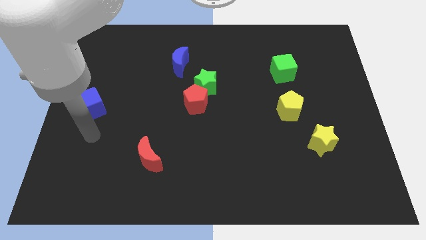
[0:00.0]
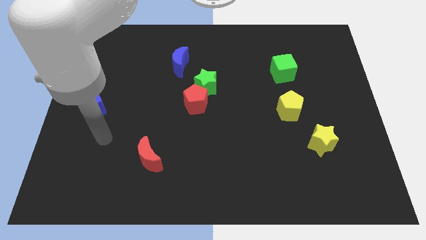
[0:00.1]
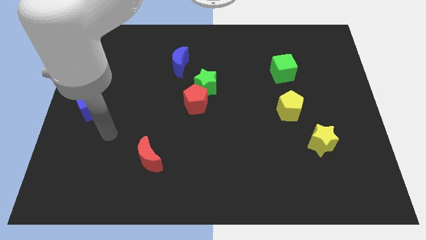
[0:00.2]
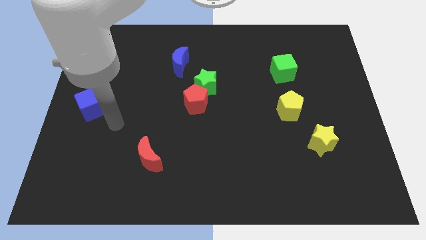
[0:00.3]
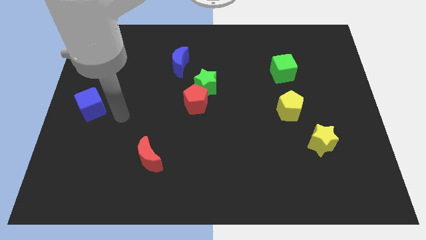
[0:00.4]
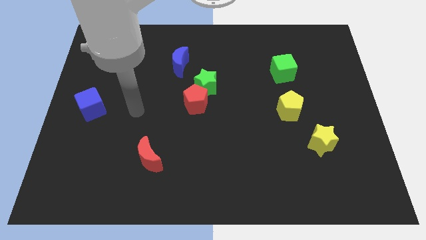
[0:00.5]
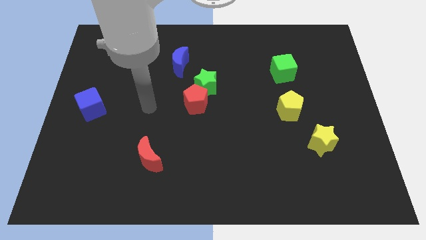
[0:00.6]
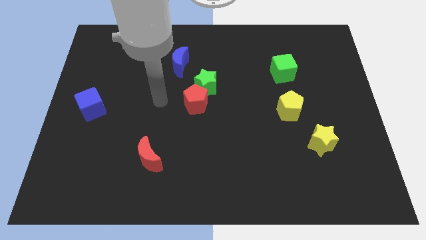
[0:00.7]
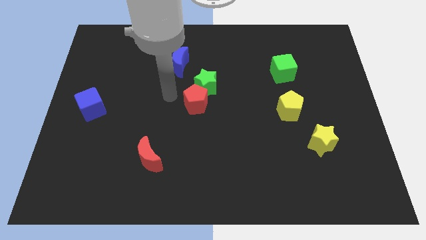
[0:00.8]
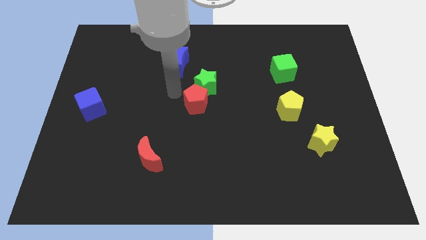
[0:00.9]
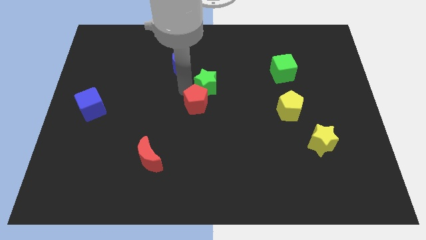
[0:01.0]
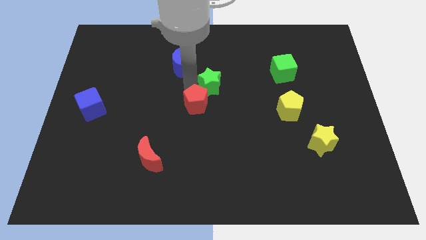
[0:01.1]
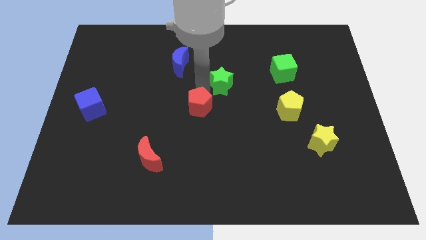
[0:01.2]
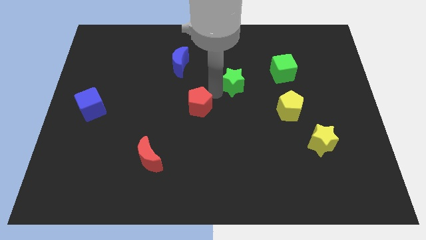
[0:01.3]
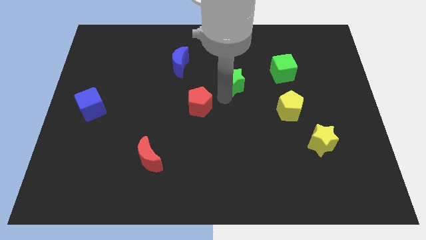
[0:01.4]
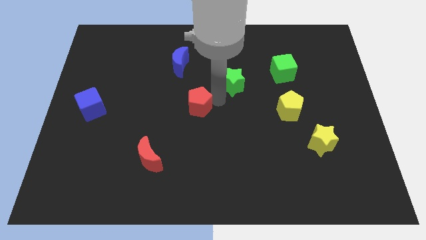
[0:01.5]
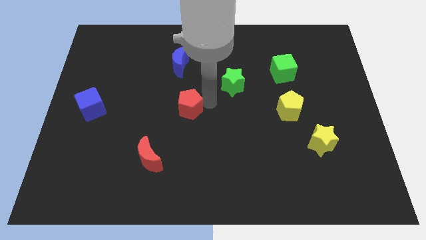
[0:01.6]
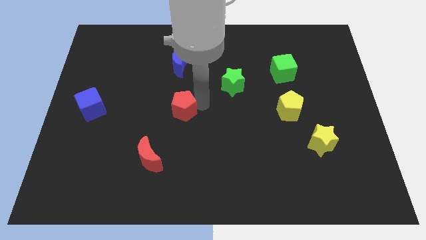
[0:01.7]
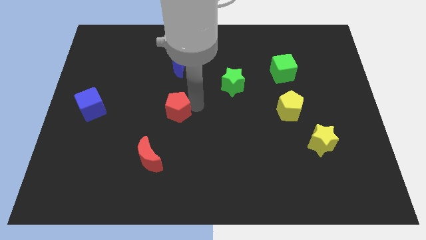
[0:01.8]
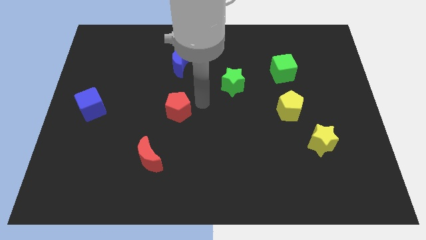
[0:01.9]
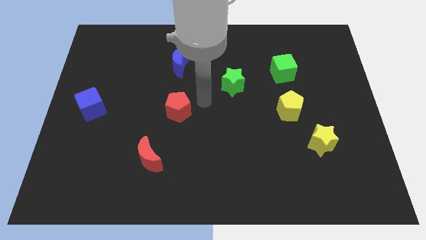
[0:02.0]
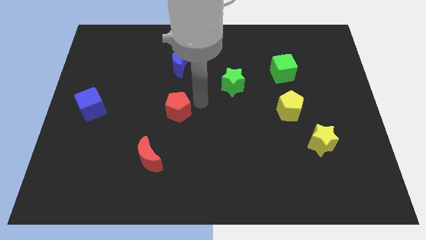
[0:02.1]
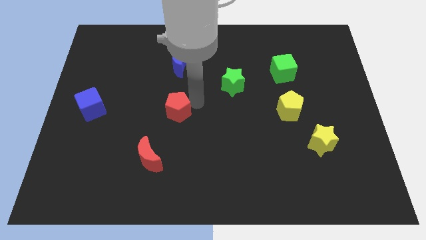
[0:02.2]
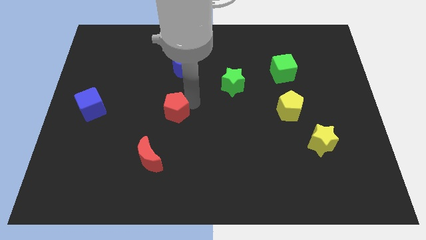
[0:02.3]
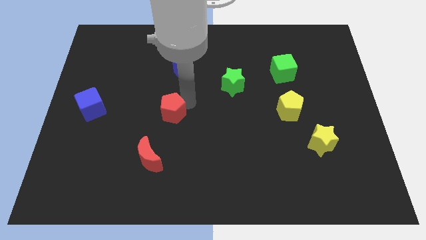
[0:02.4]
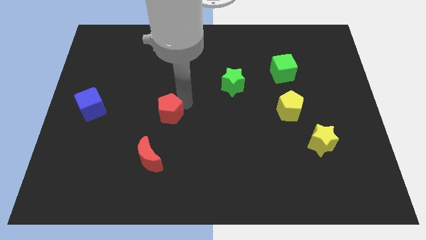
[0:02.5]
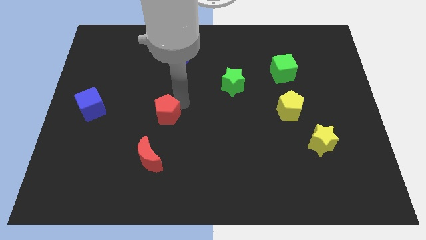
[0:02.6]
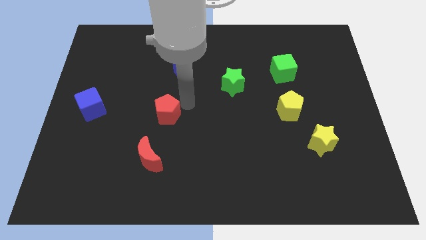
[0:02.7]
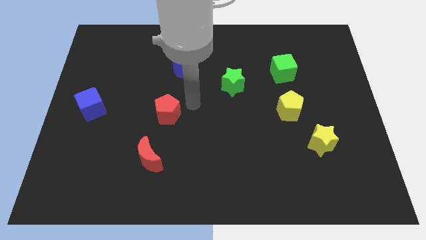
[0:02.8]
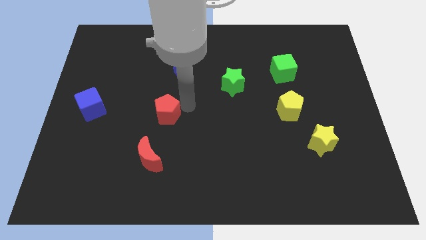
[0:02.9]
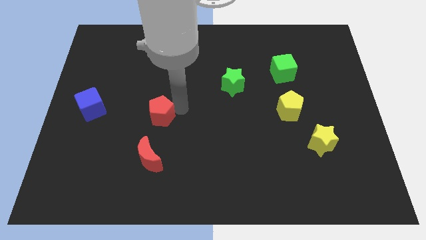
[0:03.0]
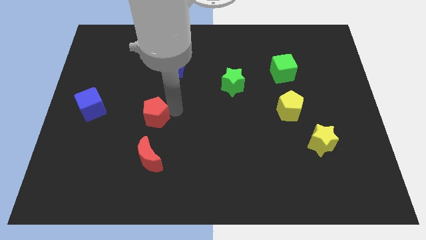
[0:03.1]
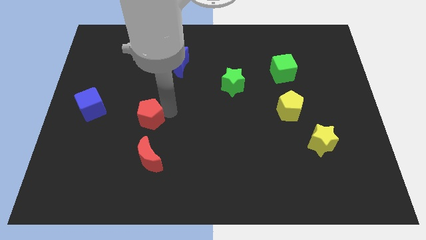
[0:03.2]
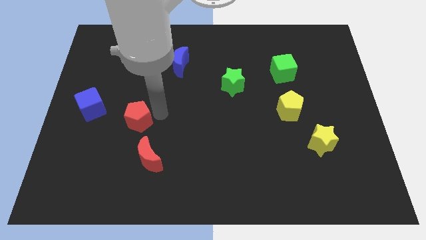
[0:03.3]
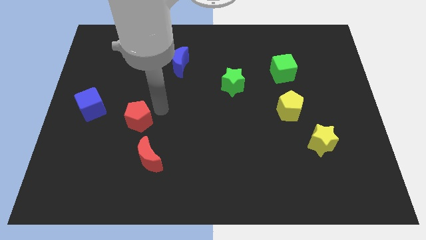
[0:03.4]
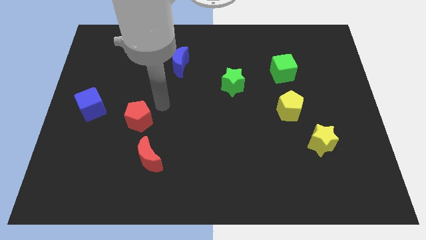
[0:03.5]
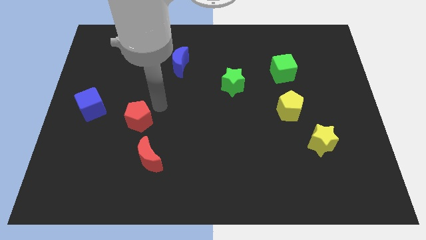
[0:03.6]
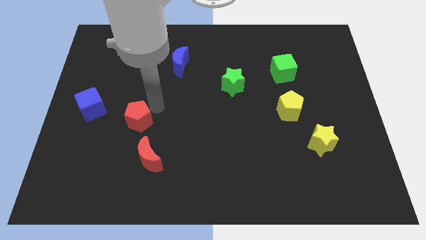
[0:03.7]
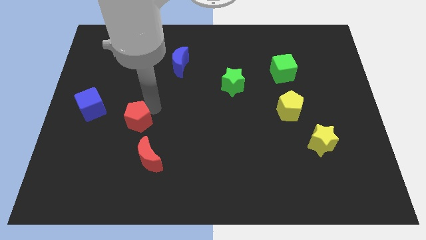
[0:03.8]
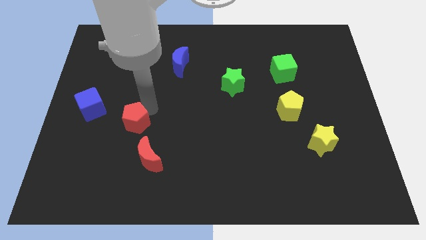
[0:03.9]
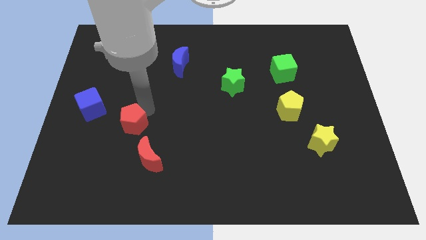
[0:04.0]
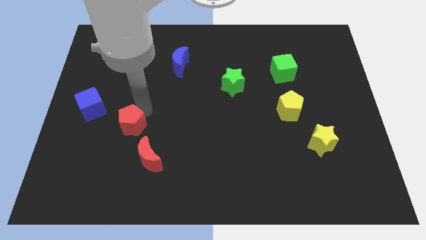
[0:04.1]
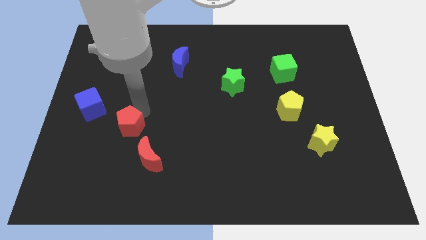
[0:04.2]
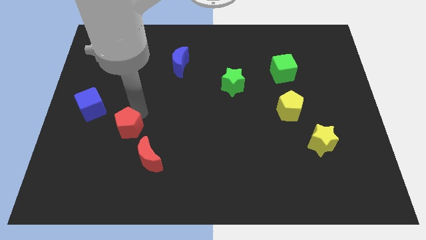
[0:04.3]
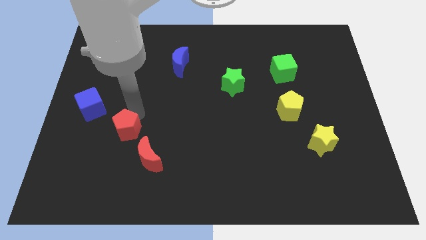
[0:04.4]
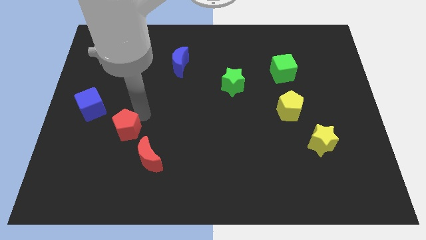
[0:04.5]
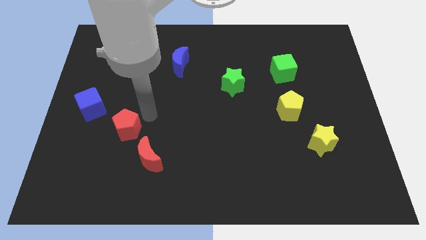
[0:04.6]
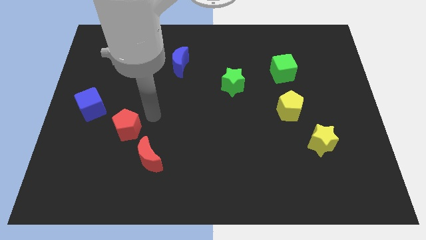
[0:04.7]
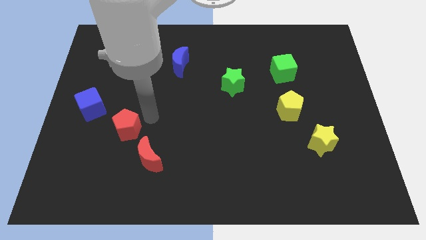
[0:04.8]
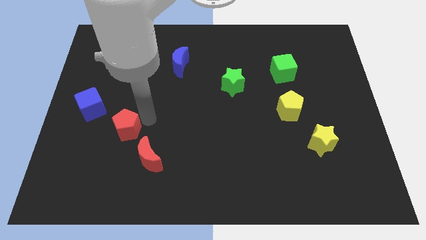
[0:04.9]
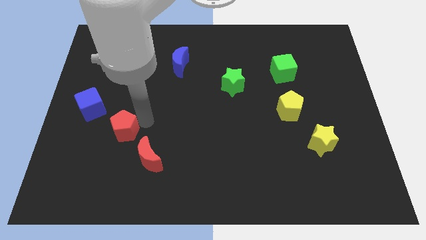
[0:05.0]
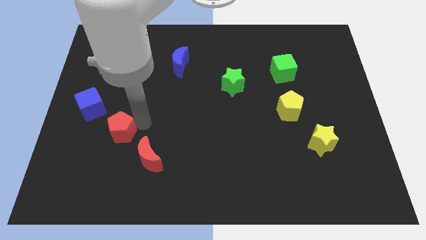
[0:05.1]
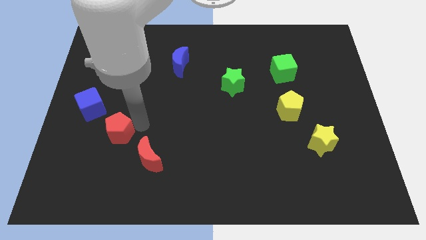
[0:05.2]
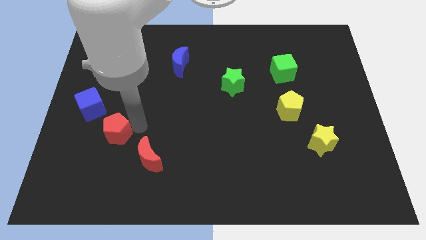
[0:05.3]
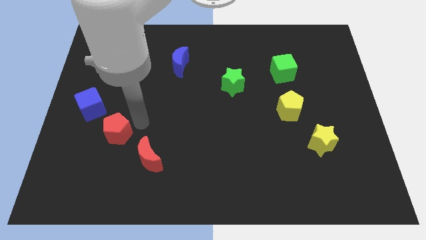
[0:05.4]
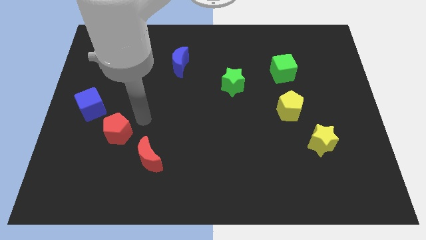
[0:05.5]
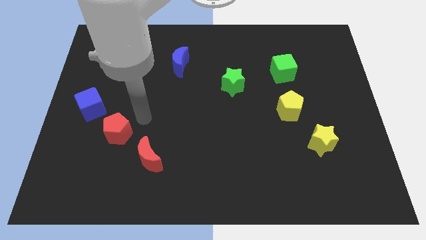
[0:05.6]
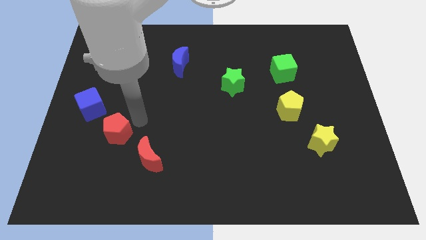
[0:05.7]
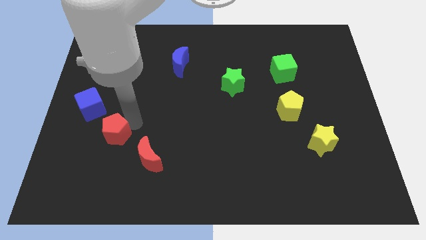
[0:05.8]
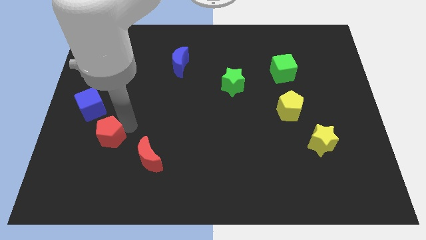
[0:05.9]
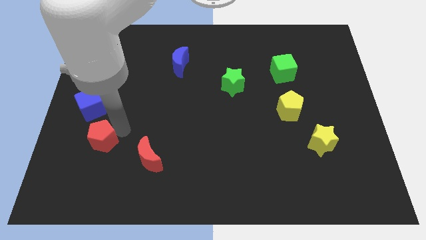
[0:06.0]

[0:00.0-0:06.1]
move the red pentagon to the bottom side of the blue cube

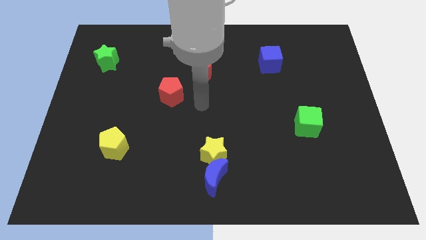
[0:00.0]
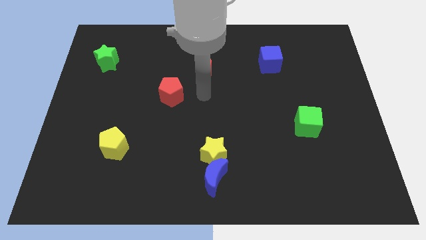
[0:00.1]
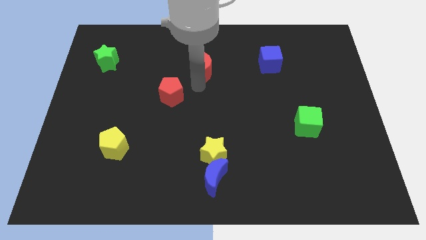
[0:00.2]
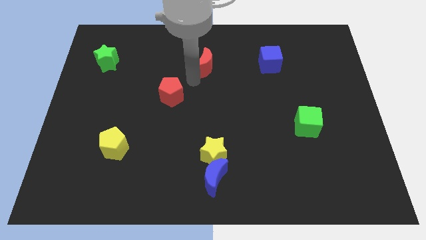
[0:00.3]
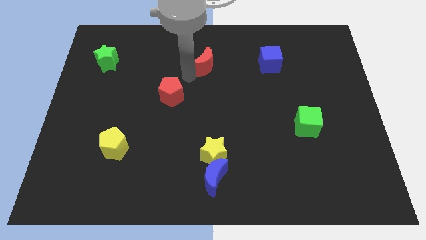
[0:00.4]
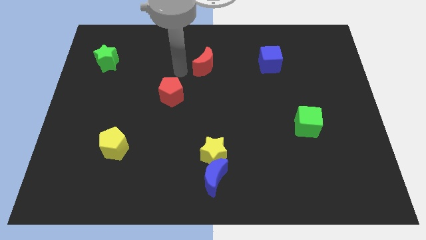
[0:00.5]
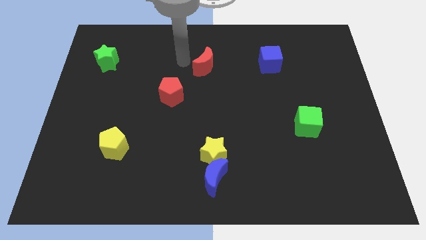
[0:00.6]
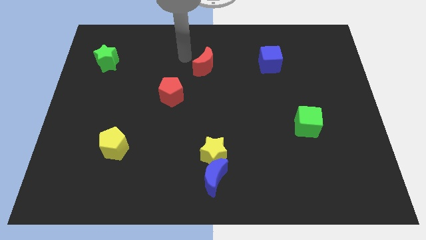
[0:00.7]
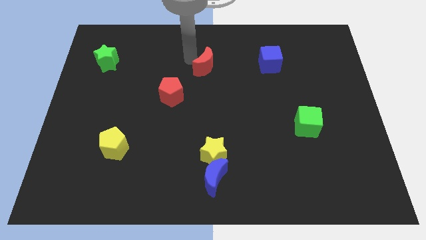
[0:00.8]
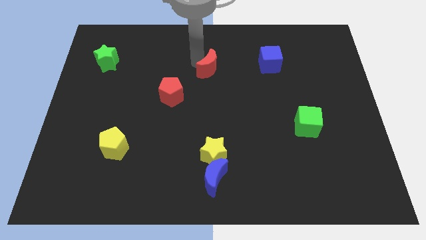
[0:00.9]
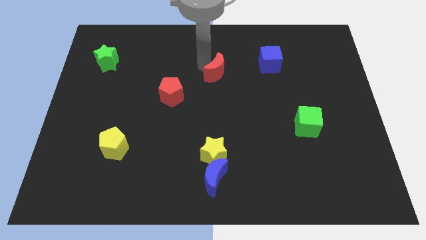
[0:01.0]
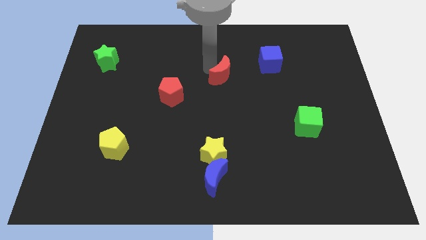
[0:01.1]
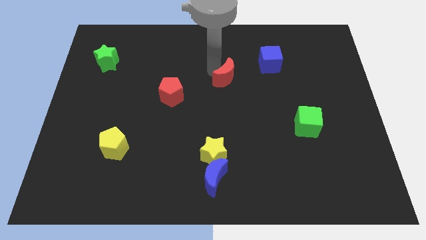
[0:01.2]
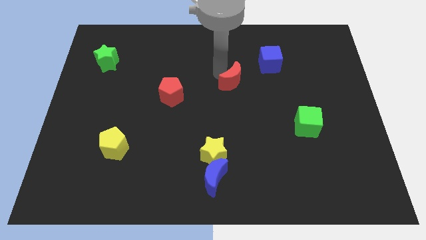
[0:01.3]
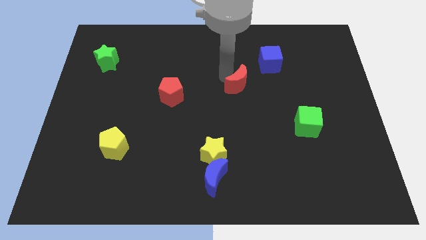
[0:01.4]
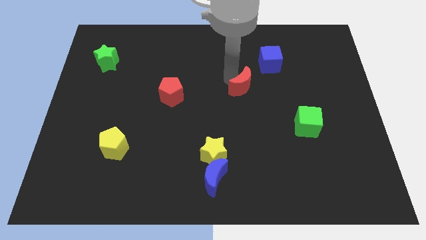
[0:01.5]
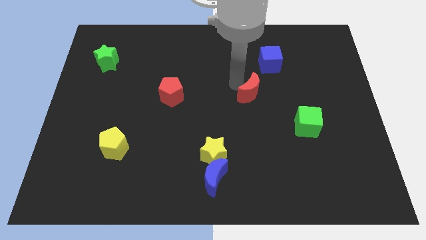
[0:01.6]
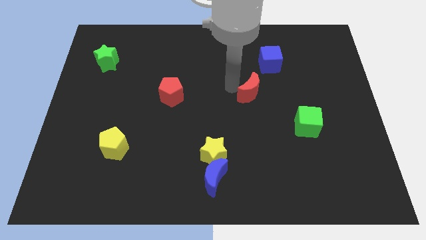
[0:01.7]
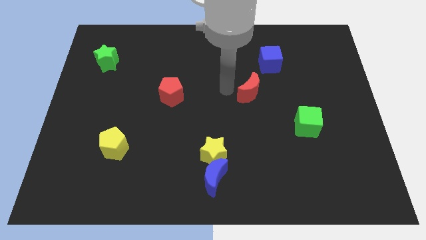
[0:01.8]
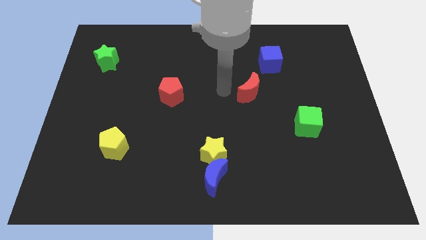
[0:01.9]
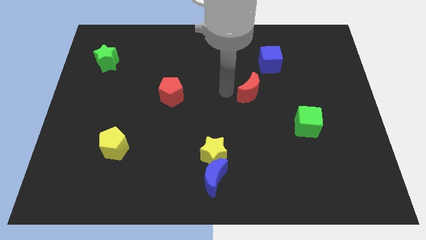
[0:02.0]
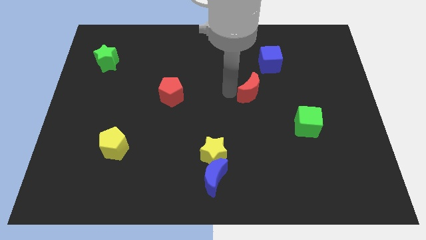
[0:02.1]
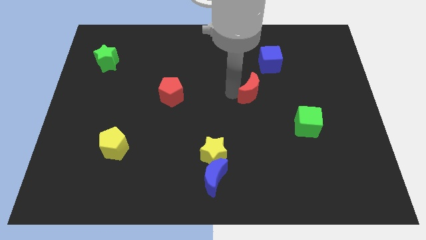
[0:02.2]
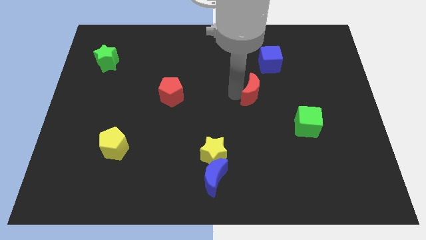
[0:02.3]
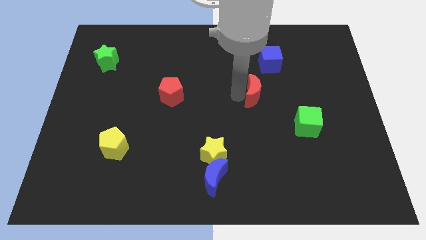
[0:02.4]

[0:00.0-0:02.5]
slide the red moon below the blue cube
